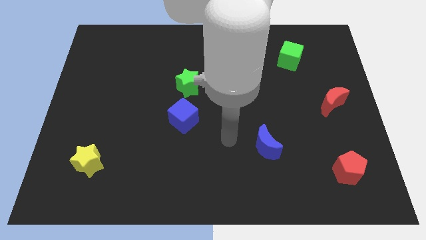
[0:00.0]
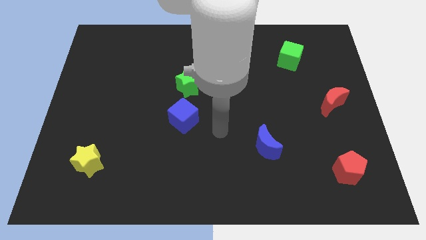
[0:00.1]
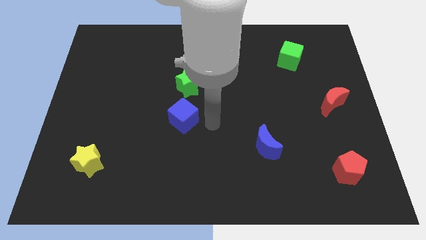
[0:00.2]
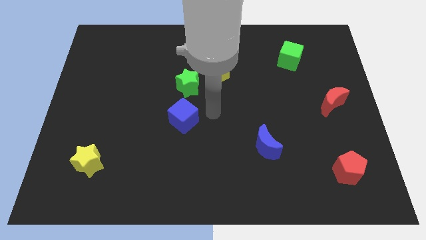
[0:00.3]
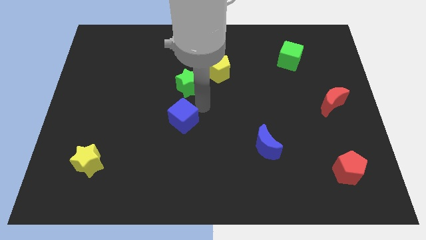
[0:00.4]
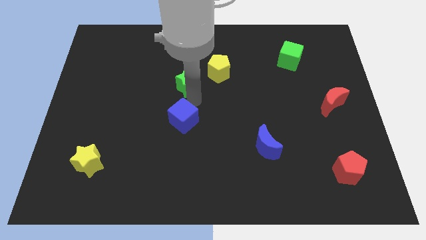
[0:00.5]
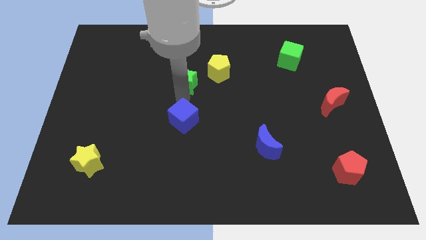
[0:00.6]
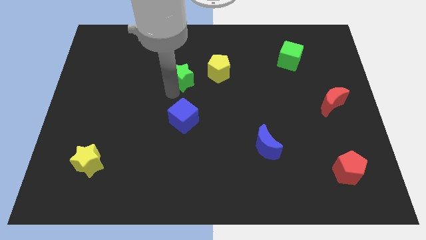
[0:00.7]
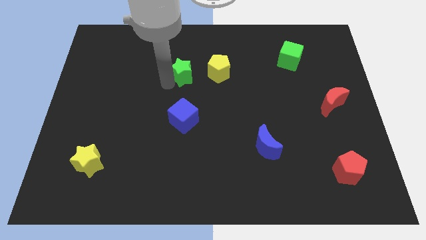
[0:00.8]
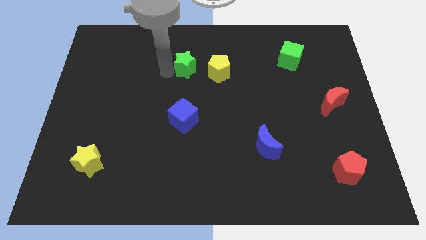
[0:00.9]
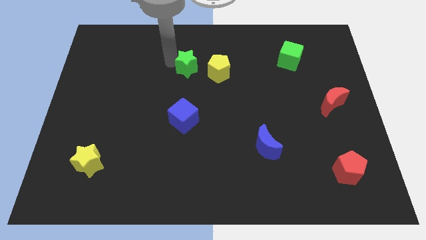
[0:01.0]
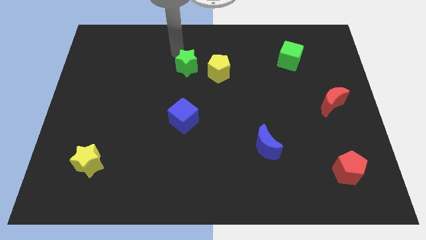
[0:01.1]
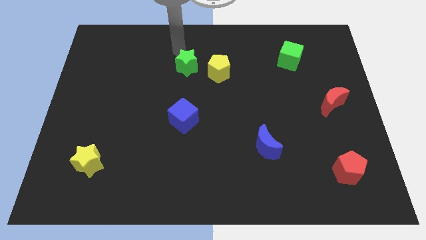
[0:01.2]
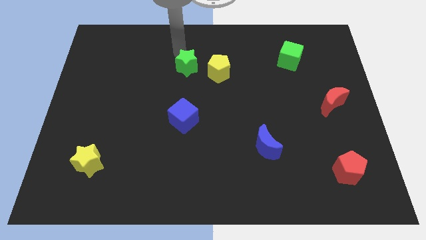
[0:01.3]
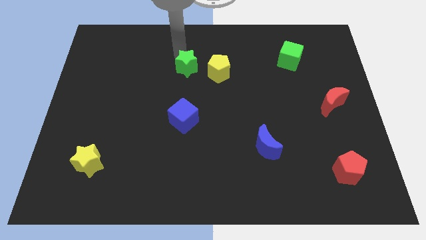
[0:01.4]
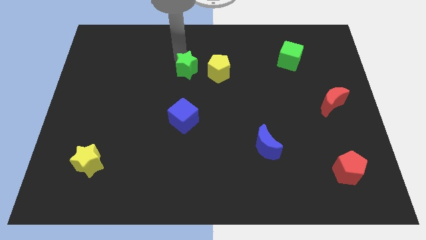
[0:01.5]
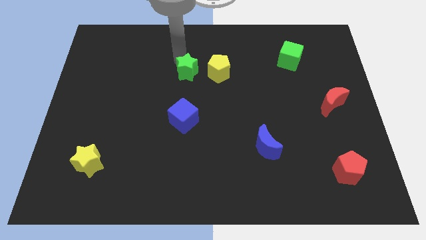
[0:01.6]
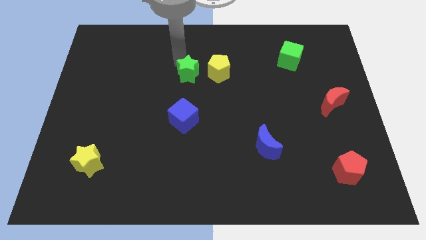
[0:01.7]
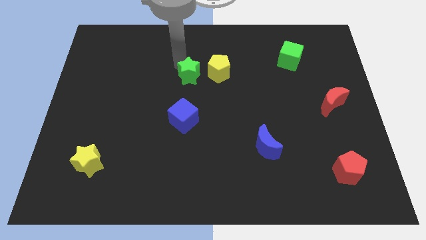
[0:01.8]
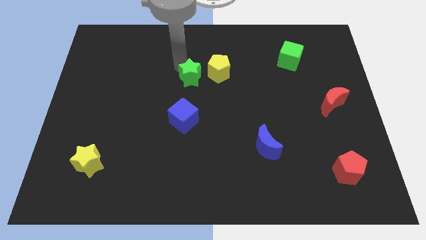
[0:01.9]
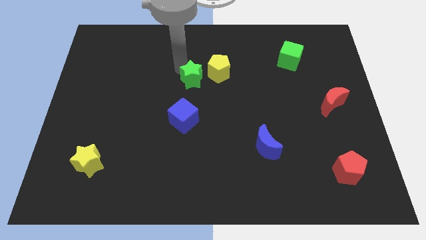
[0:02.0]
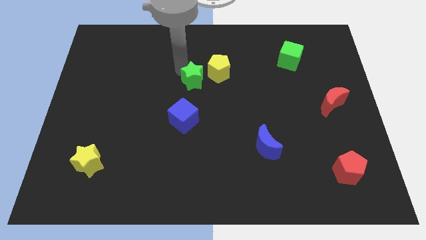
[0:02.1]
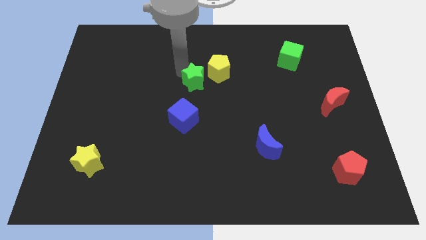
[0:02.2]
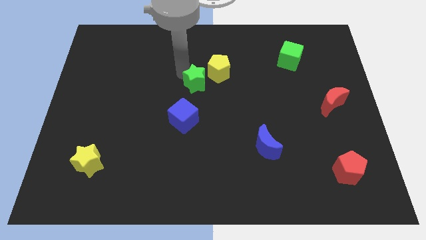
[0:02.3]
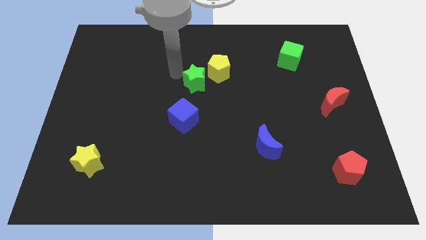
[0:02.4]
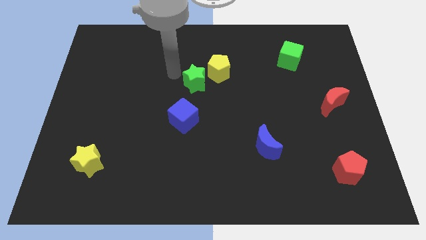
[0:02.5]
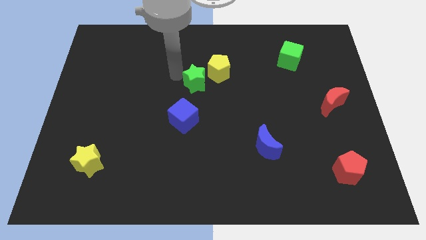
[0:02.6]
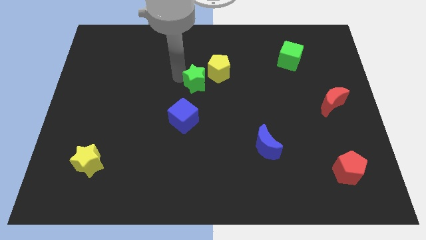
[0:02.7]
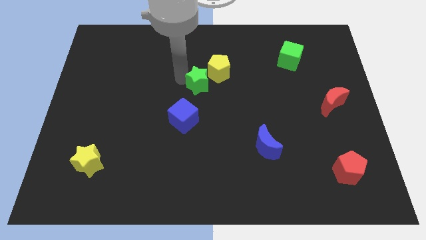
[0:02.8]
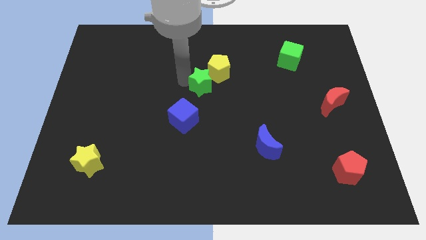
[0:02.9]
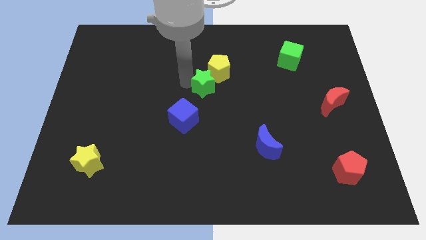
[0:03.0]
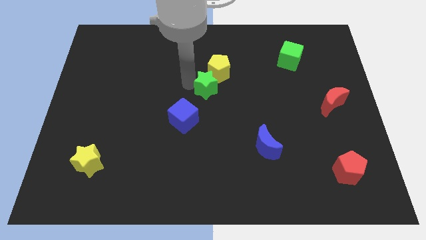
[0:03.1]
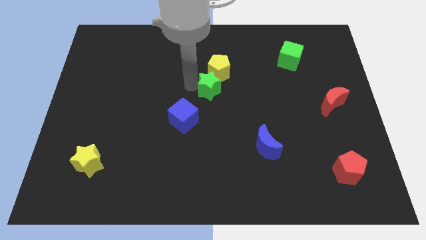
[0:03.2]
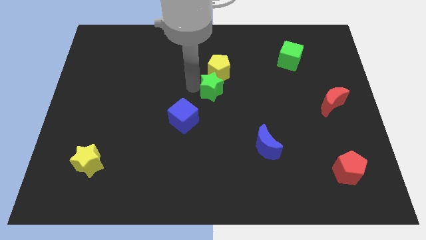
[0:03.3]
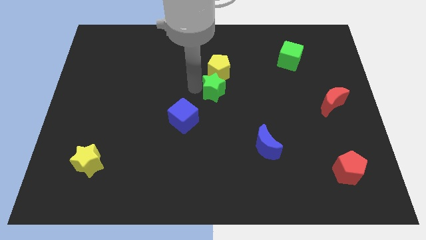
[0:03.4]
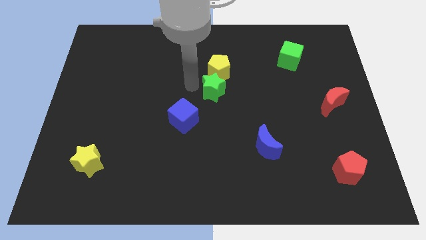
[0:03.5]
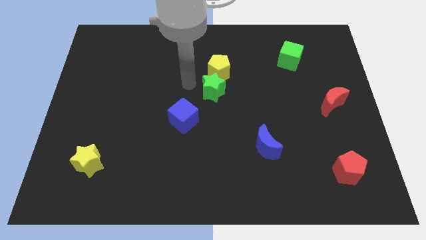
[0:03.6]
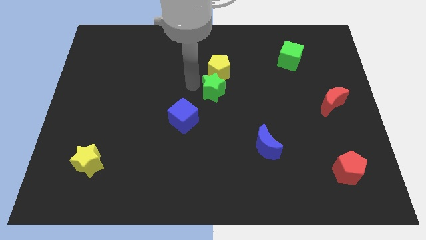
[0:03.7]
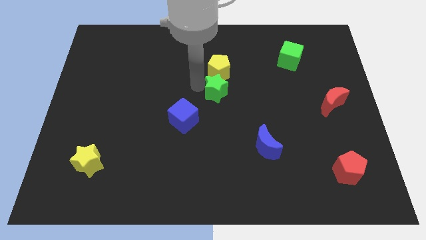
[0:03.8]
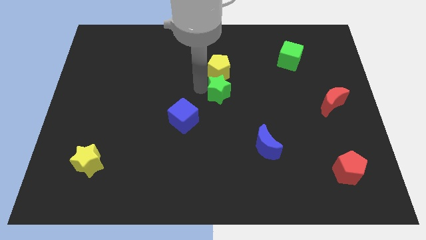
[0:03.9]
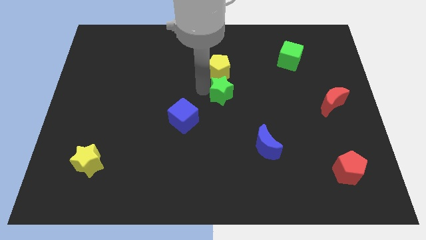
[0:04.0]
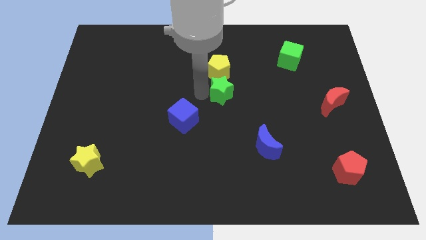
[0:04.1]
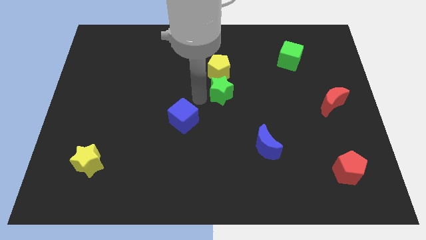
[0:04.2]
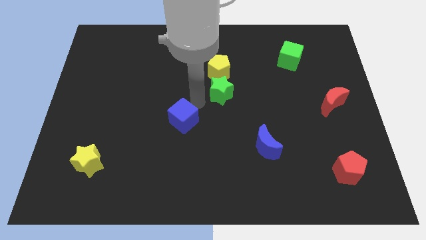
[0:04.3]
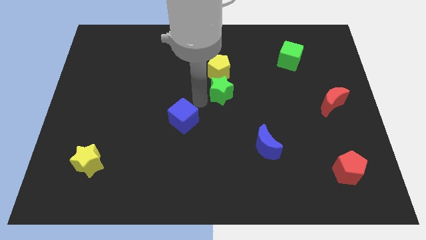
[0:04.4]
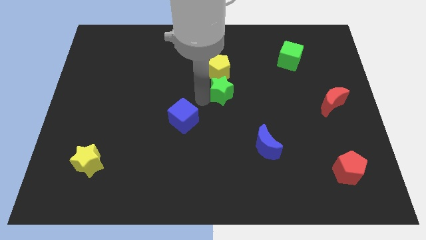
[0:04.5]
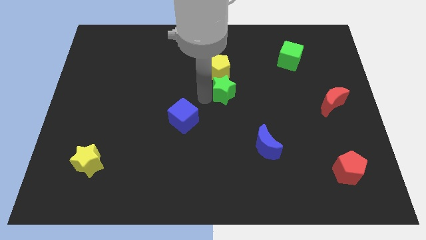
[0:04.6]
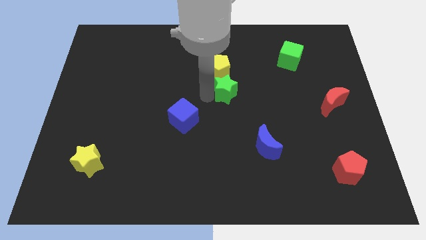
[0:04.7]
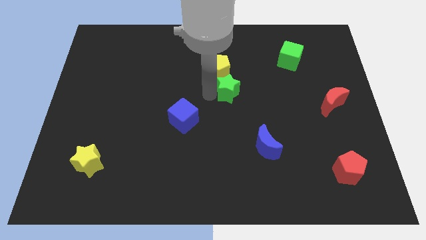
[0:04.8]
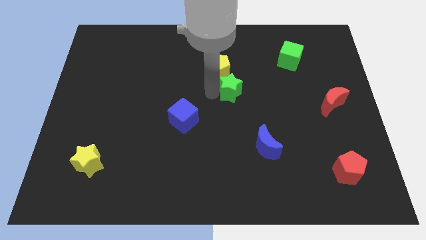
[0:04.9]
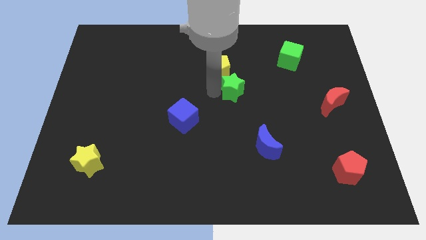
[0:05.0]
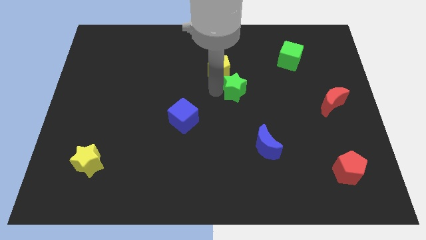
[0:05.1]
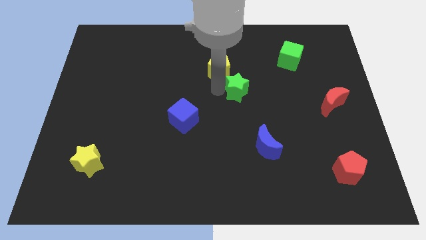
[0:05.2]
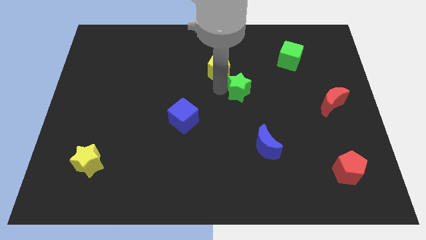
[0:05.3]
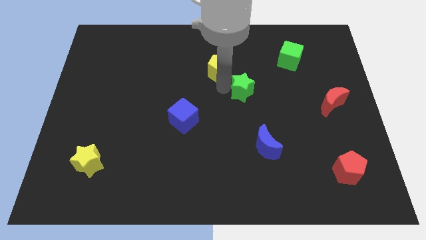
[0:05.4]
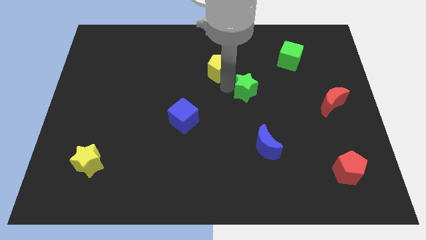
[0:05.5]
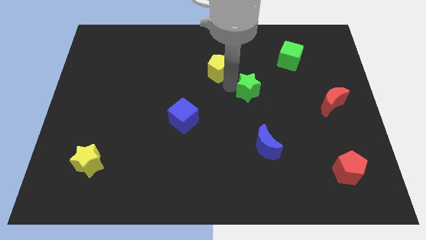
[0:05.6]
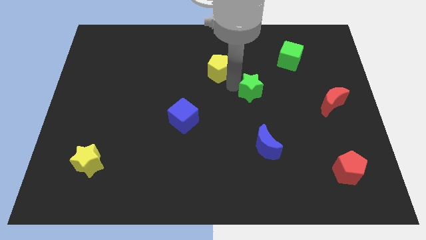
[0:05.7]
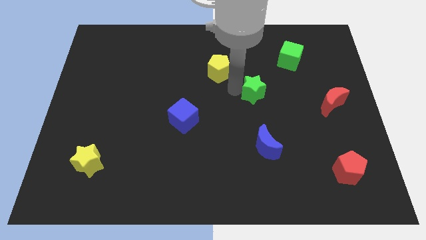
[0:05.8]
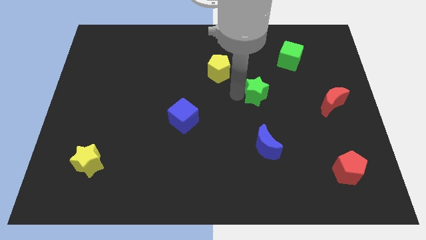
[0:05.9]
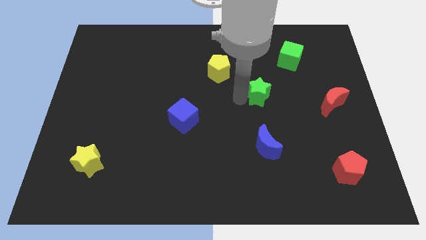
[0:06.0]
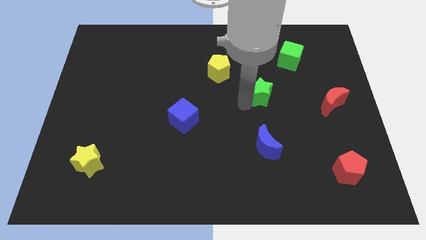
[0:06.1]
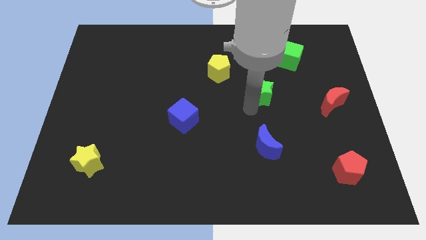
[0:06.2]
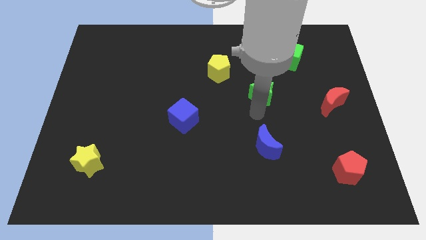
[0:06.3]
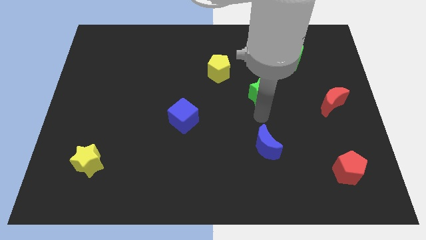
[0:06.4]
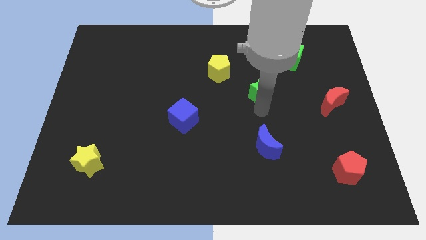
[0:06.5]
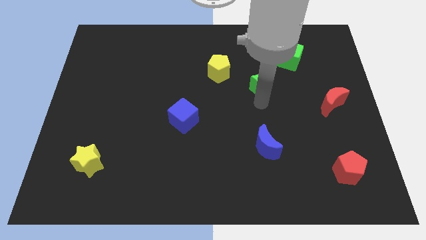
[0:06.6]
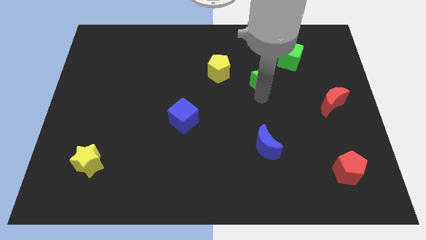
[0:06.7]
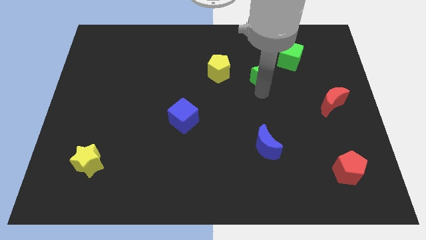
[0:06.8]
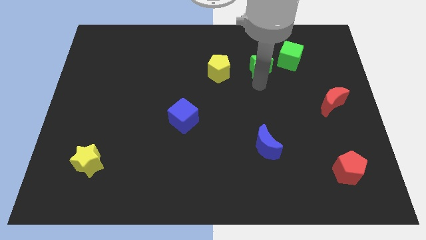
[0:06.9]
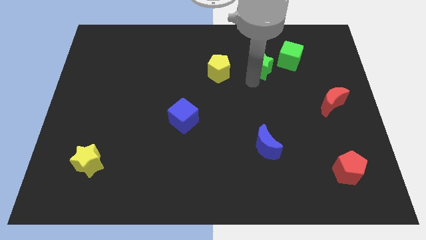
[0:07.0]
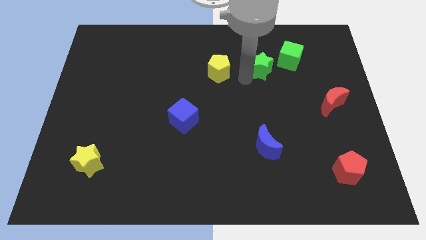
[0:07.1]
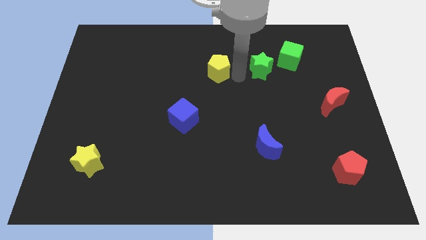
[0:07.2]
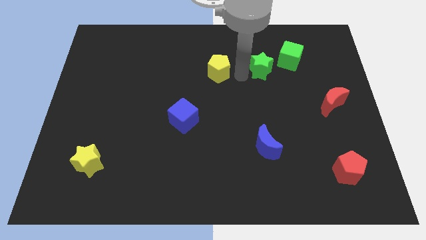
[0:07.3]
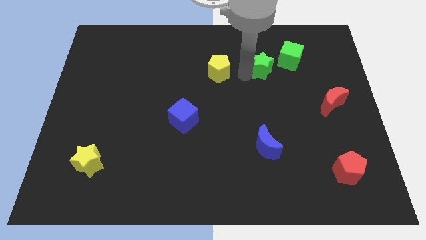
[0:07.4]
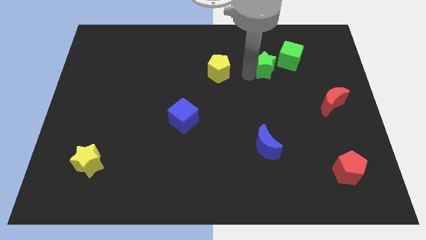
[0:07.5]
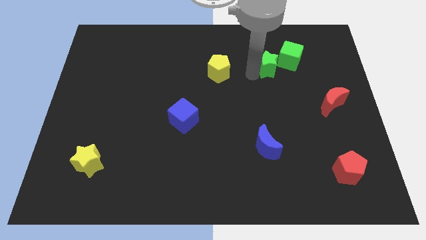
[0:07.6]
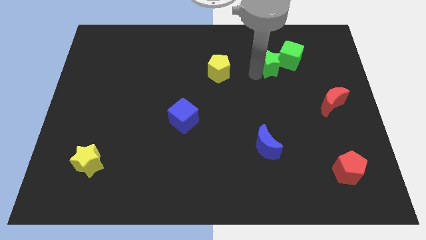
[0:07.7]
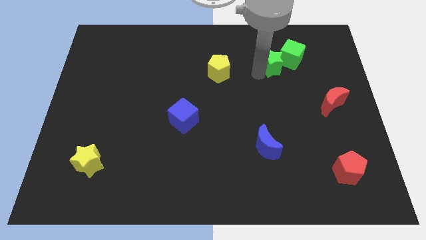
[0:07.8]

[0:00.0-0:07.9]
slide the green star next to the green cube
